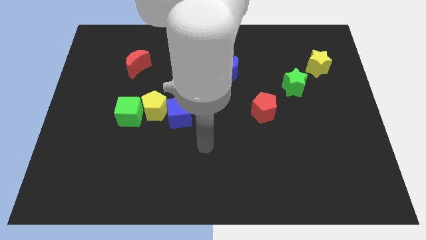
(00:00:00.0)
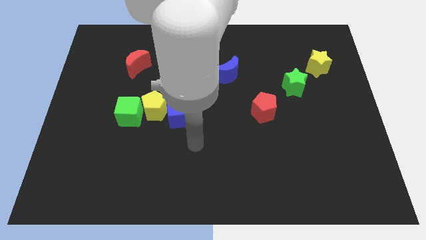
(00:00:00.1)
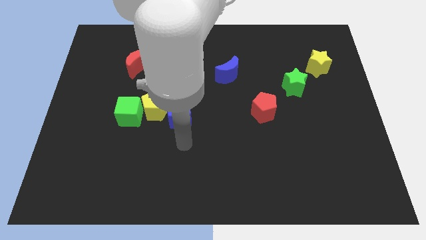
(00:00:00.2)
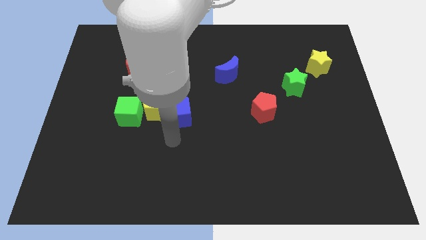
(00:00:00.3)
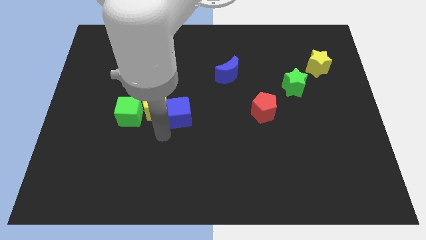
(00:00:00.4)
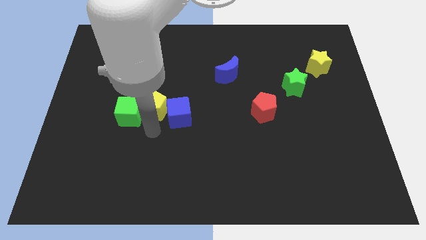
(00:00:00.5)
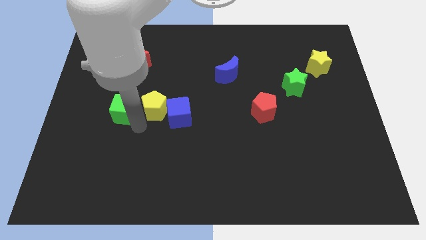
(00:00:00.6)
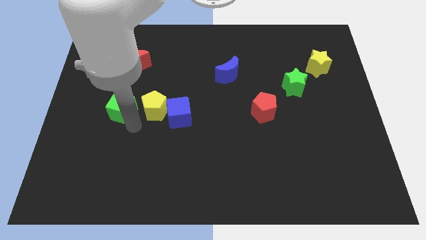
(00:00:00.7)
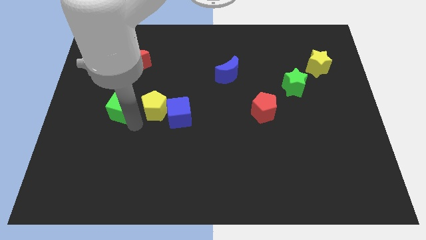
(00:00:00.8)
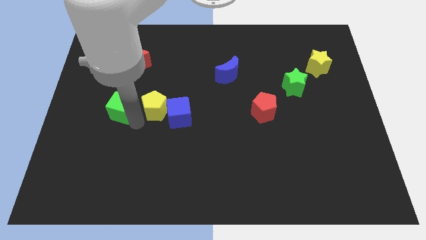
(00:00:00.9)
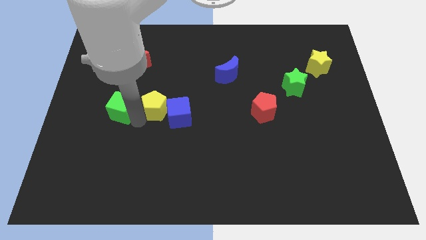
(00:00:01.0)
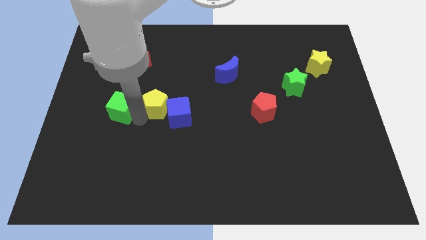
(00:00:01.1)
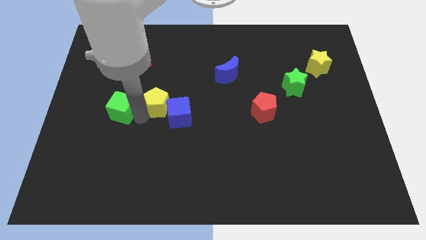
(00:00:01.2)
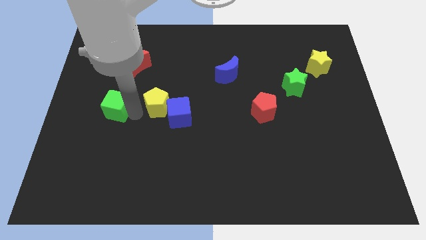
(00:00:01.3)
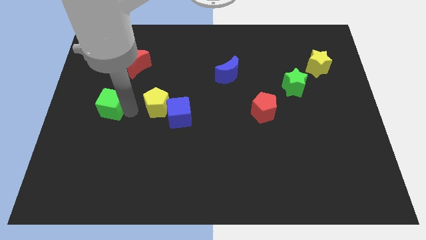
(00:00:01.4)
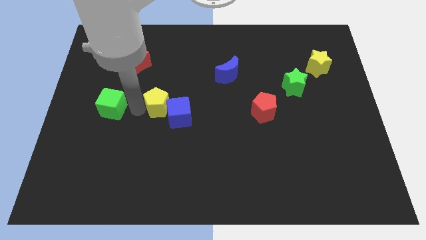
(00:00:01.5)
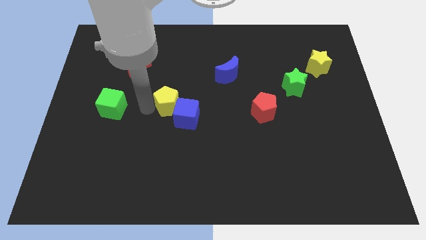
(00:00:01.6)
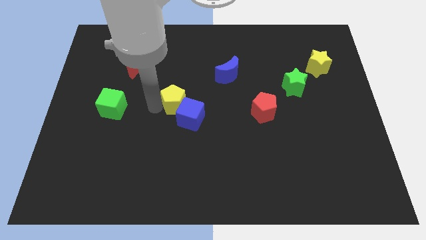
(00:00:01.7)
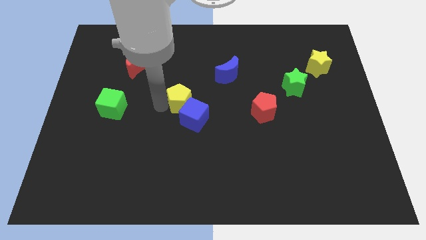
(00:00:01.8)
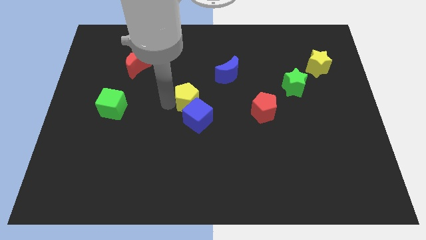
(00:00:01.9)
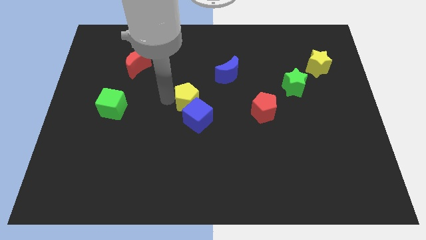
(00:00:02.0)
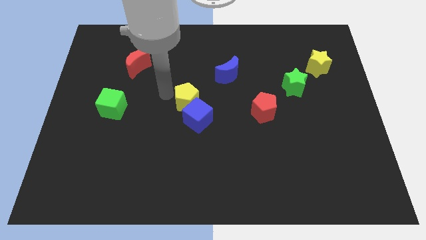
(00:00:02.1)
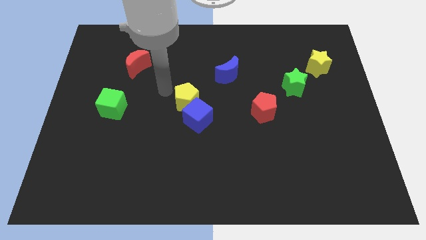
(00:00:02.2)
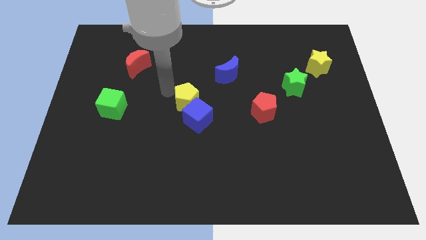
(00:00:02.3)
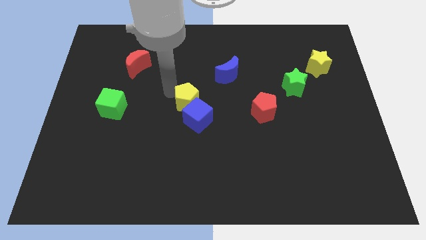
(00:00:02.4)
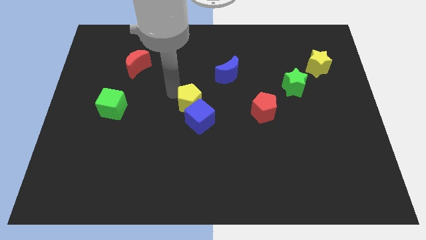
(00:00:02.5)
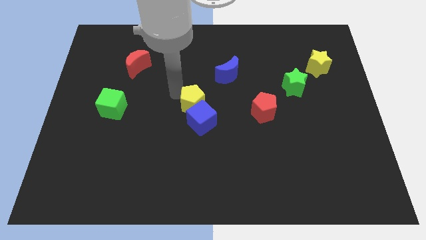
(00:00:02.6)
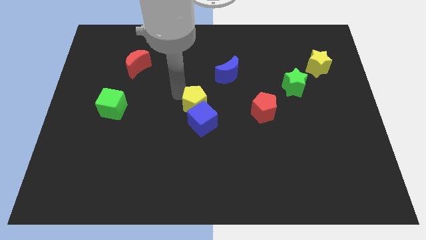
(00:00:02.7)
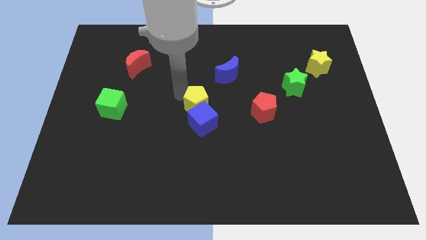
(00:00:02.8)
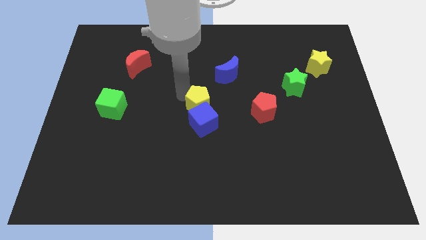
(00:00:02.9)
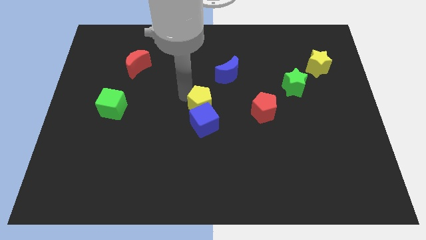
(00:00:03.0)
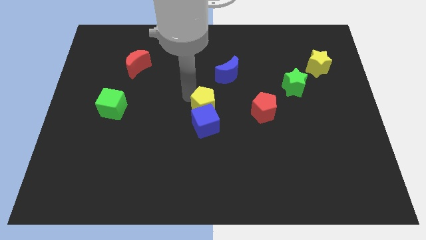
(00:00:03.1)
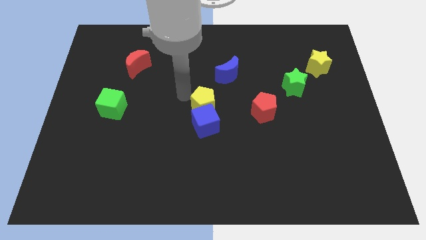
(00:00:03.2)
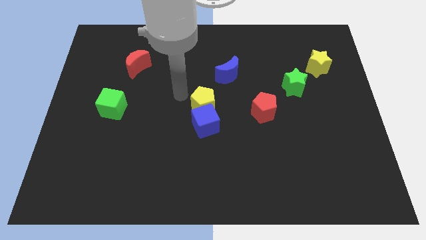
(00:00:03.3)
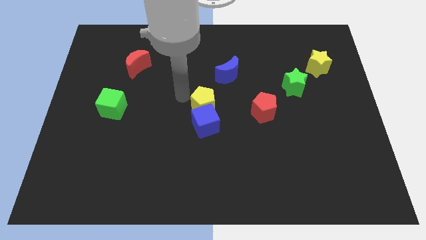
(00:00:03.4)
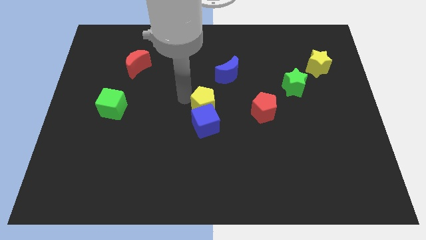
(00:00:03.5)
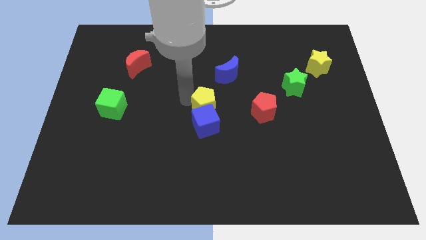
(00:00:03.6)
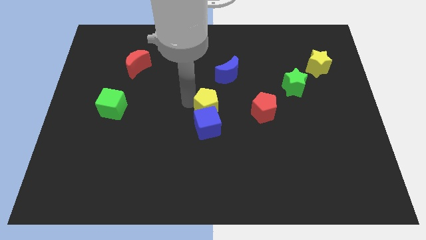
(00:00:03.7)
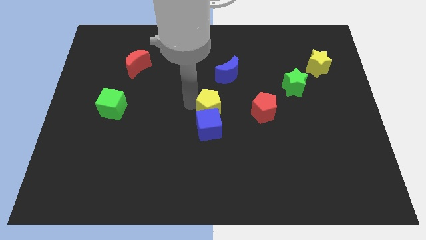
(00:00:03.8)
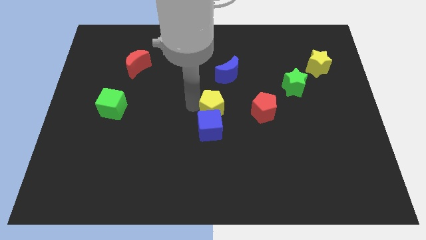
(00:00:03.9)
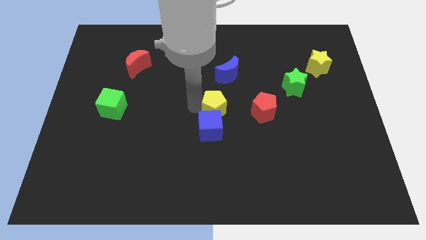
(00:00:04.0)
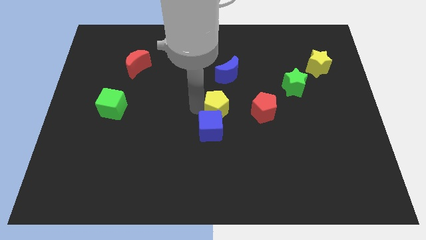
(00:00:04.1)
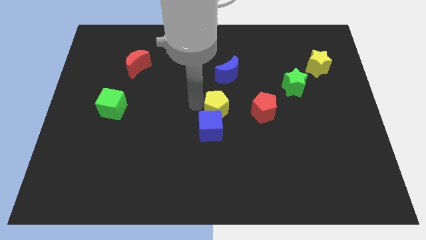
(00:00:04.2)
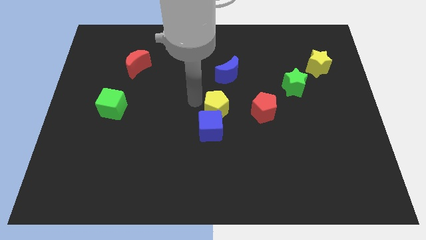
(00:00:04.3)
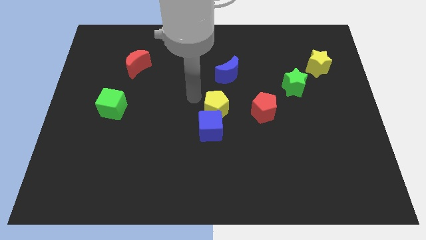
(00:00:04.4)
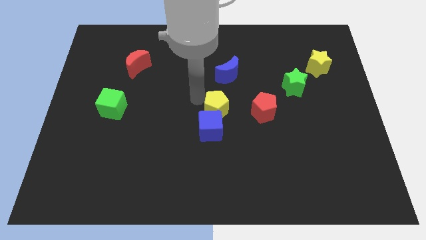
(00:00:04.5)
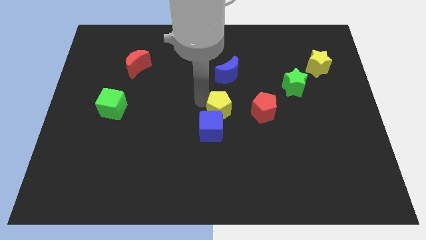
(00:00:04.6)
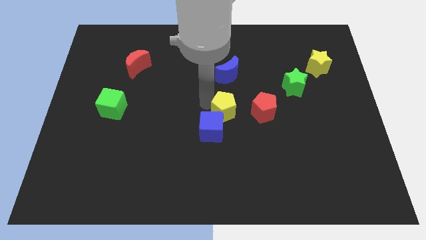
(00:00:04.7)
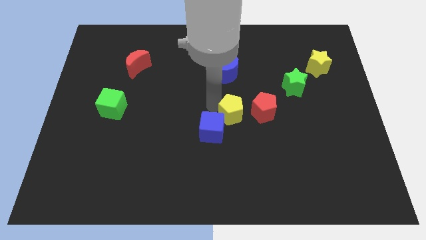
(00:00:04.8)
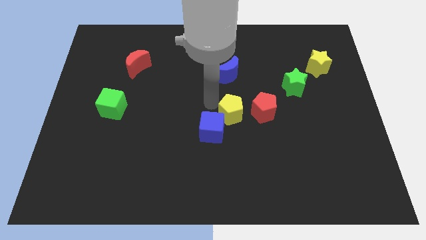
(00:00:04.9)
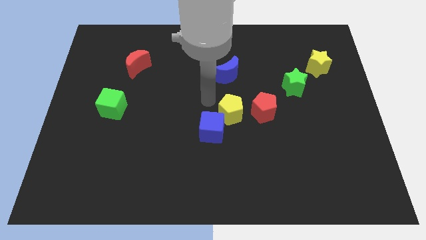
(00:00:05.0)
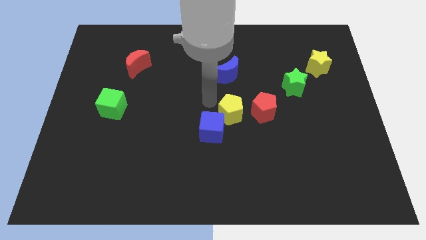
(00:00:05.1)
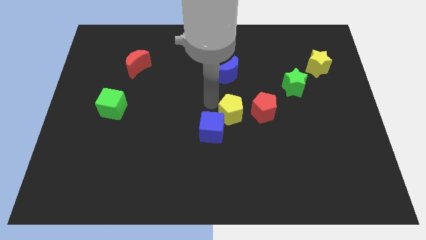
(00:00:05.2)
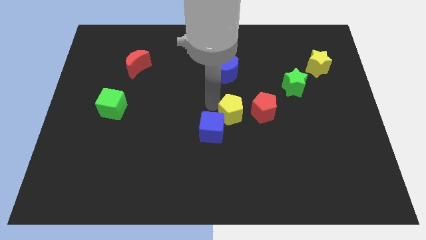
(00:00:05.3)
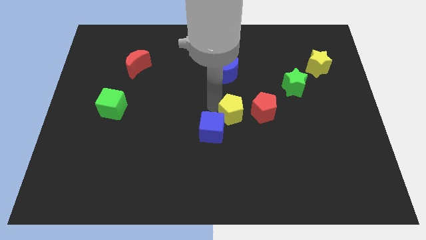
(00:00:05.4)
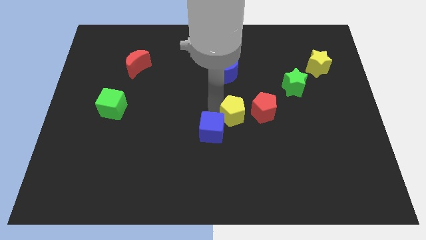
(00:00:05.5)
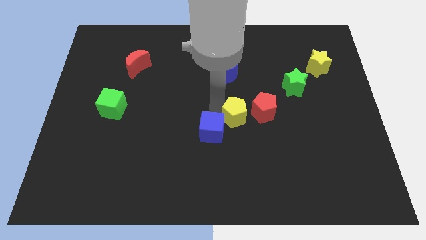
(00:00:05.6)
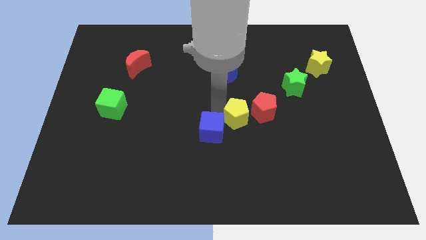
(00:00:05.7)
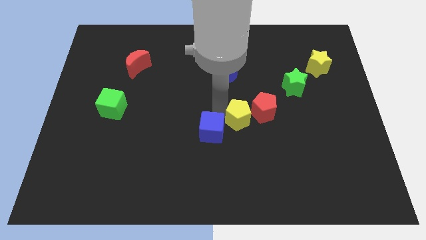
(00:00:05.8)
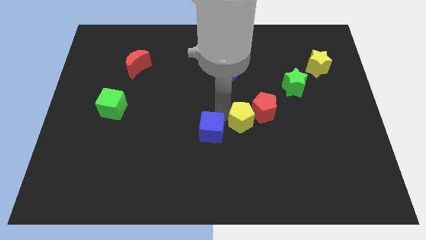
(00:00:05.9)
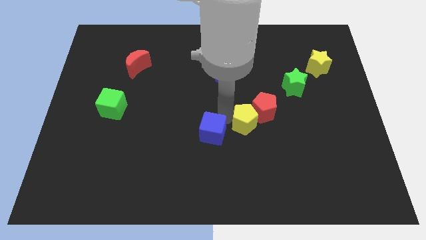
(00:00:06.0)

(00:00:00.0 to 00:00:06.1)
move the yellow pentagon right

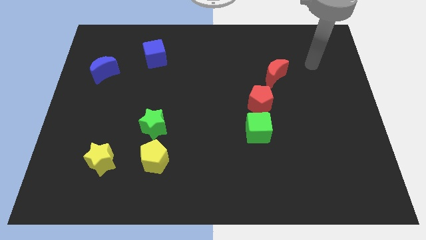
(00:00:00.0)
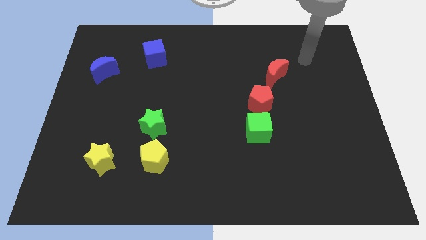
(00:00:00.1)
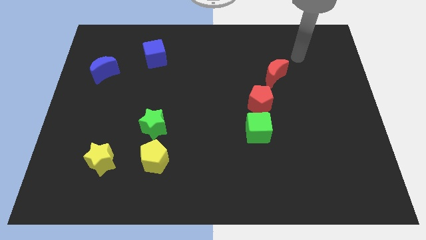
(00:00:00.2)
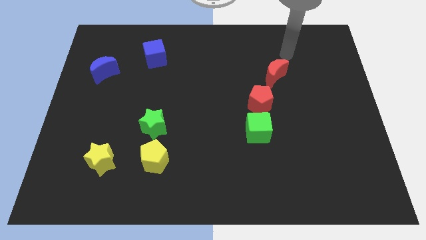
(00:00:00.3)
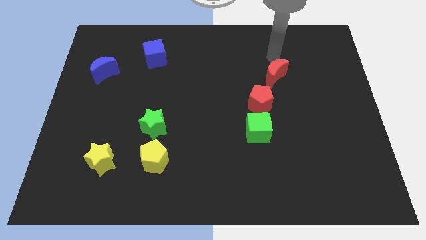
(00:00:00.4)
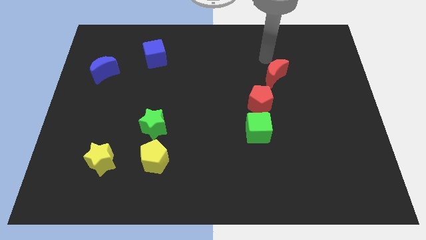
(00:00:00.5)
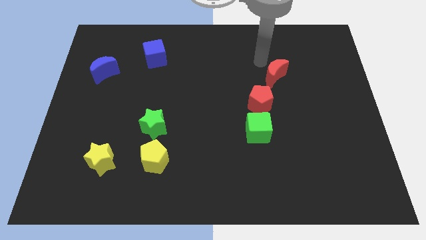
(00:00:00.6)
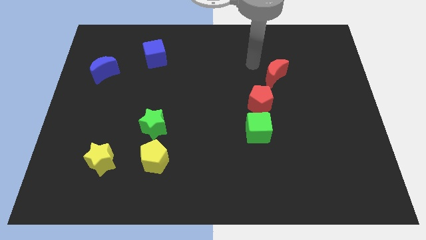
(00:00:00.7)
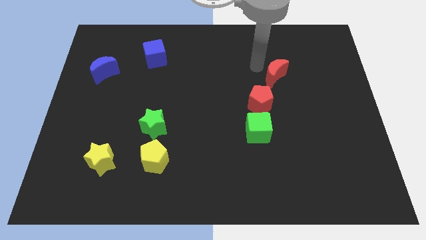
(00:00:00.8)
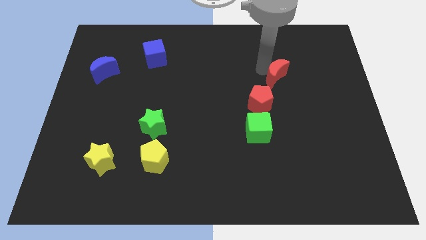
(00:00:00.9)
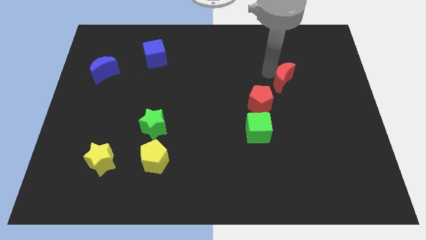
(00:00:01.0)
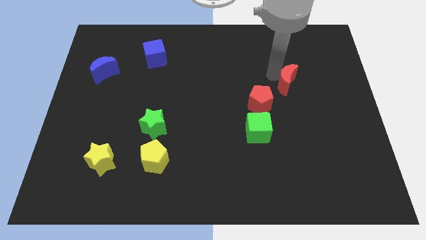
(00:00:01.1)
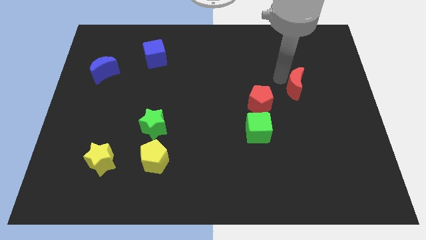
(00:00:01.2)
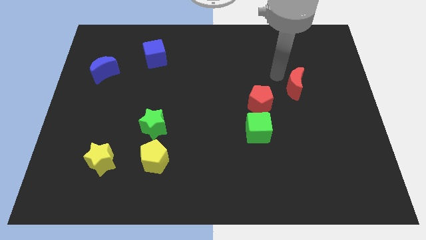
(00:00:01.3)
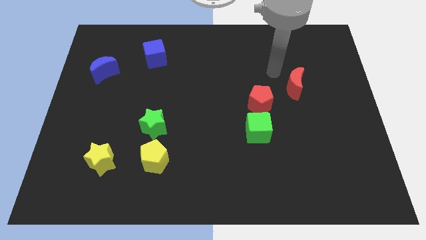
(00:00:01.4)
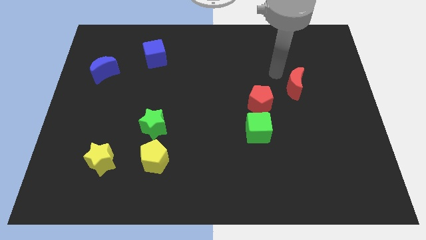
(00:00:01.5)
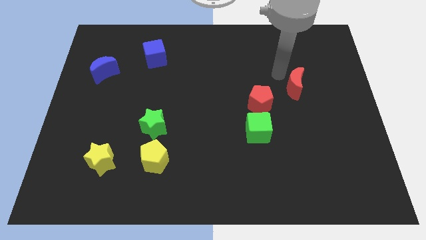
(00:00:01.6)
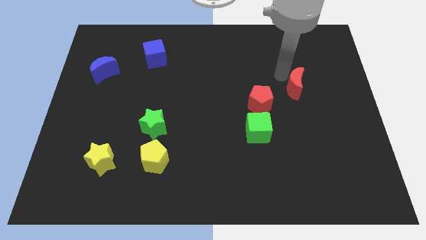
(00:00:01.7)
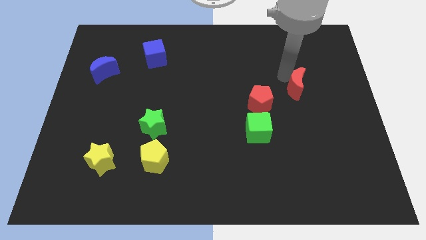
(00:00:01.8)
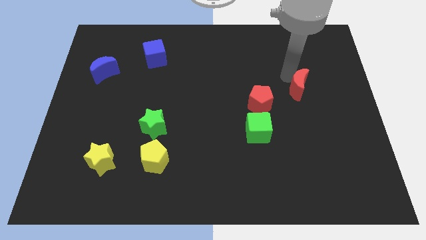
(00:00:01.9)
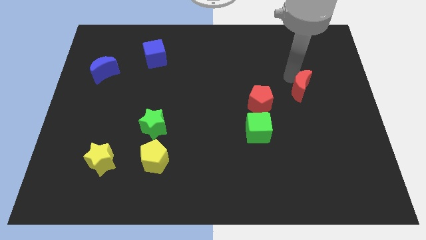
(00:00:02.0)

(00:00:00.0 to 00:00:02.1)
move the red moon slightly downwards and to the right
